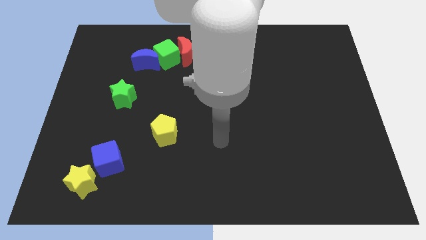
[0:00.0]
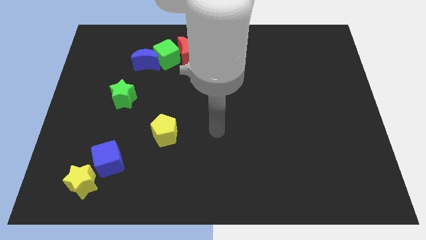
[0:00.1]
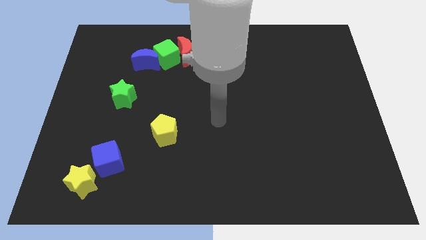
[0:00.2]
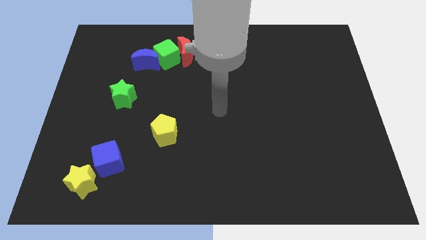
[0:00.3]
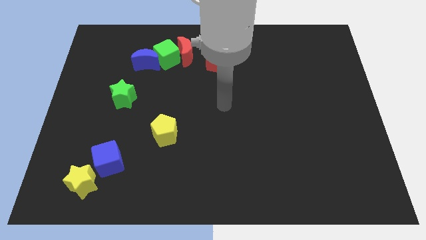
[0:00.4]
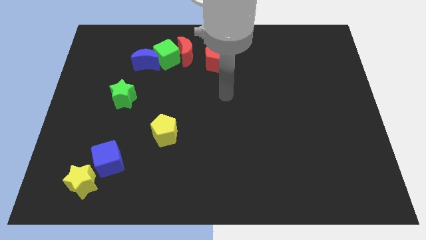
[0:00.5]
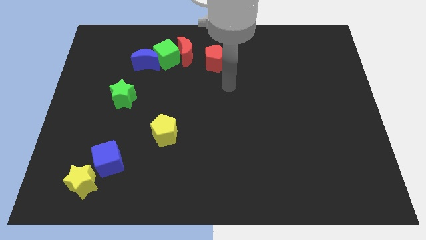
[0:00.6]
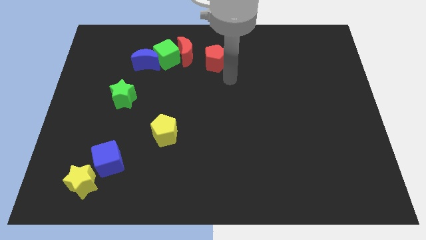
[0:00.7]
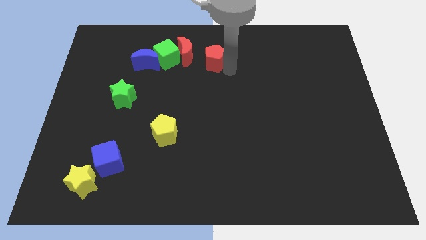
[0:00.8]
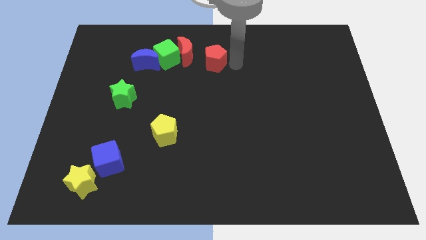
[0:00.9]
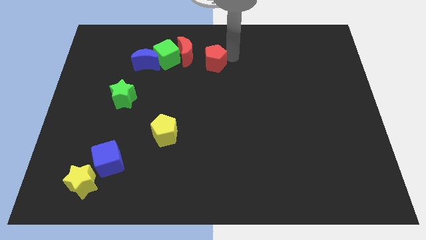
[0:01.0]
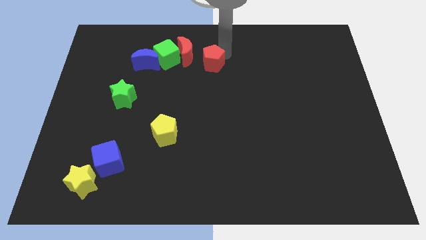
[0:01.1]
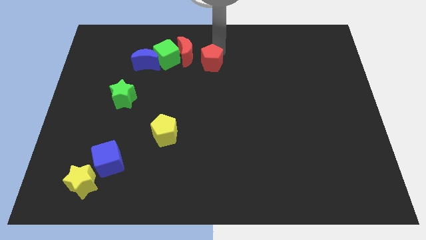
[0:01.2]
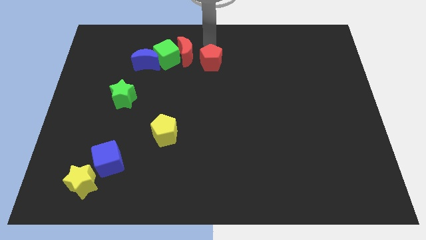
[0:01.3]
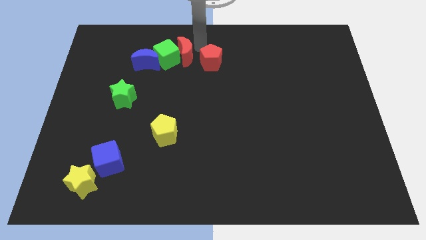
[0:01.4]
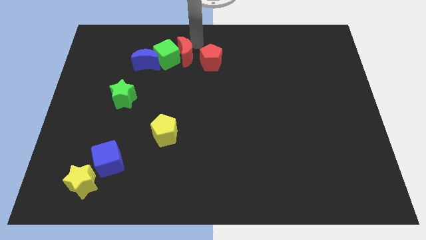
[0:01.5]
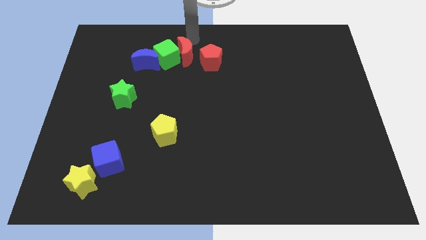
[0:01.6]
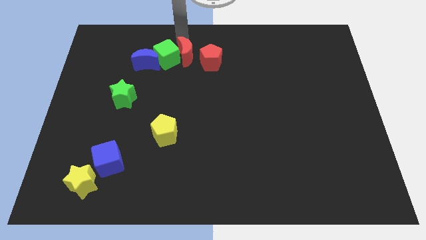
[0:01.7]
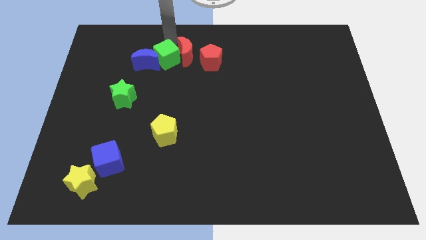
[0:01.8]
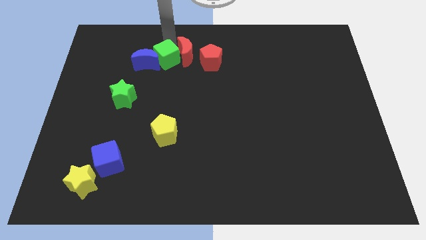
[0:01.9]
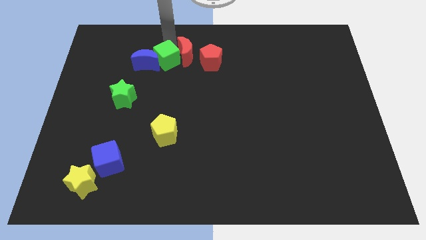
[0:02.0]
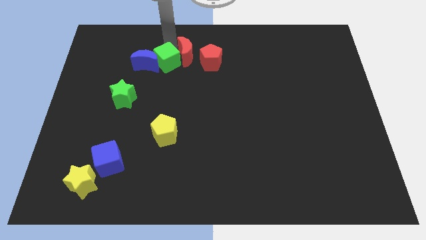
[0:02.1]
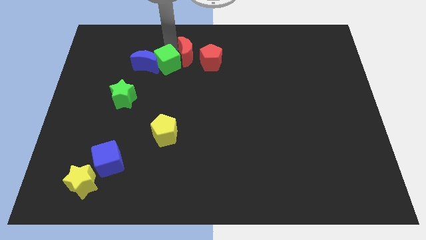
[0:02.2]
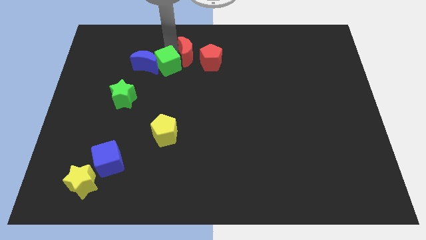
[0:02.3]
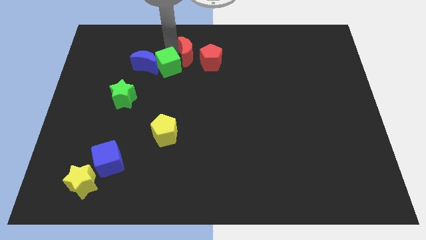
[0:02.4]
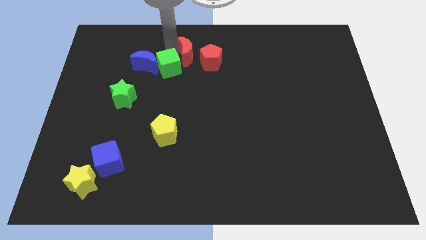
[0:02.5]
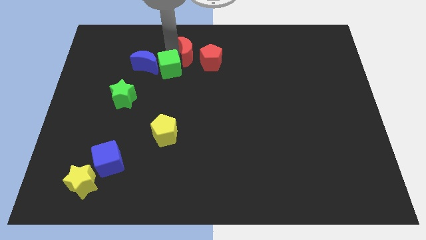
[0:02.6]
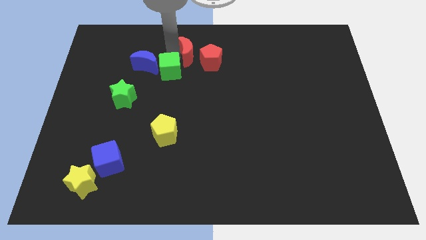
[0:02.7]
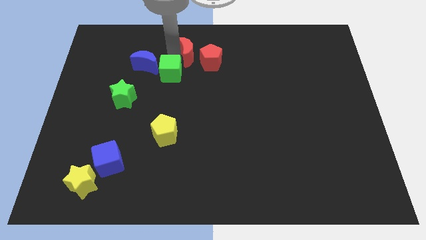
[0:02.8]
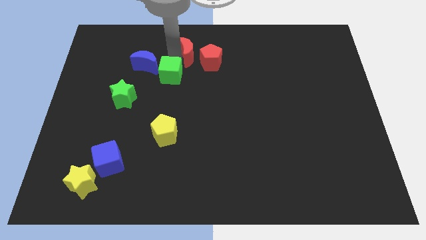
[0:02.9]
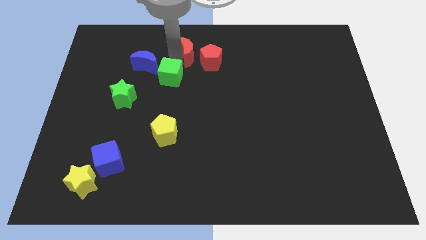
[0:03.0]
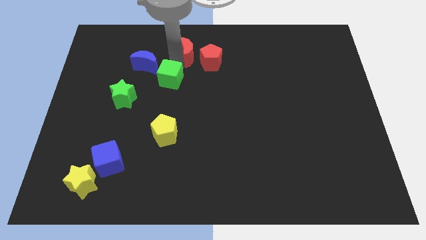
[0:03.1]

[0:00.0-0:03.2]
slightly push the green cube downwards

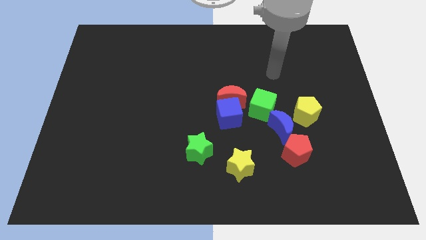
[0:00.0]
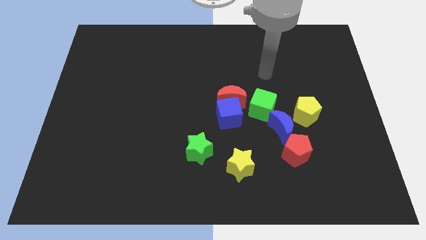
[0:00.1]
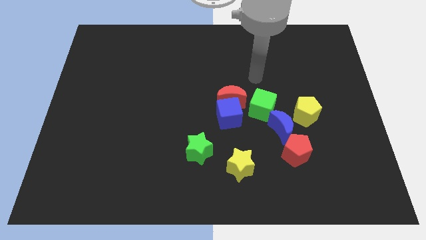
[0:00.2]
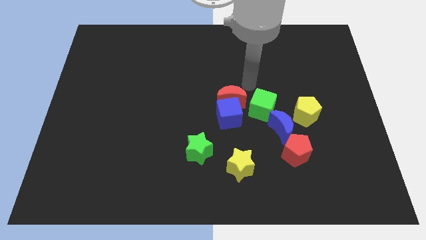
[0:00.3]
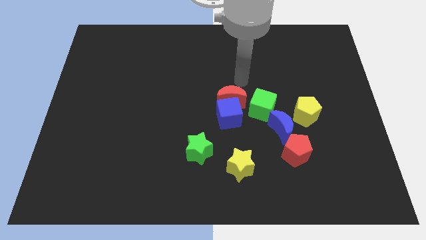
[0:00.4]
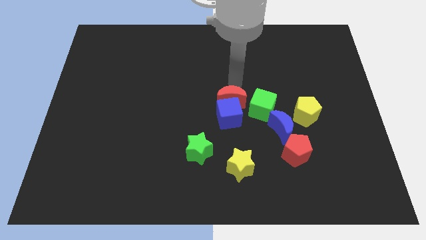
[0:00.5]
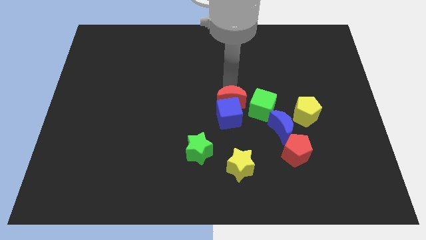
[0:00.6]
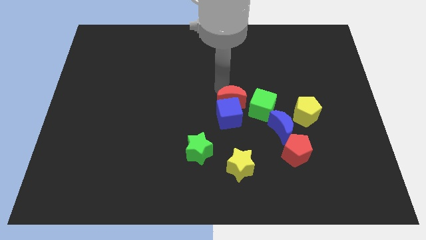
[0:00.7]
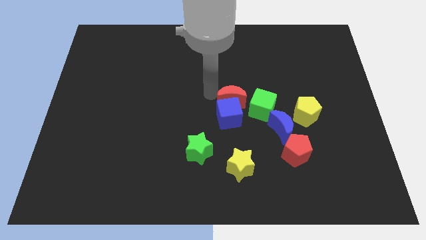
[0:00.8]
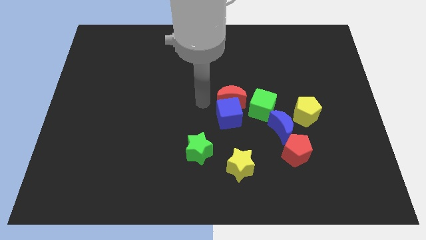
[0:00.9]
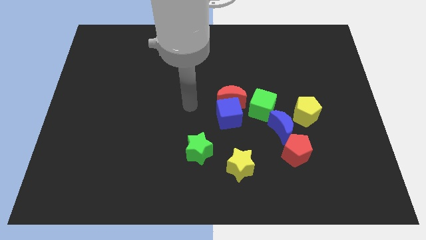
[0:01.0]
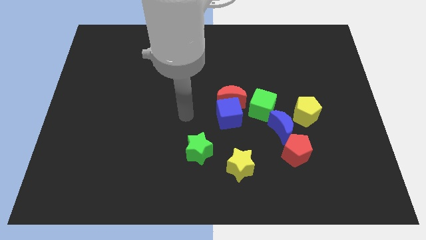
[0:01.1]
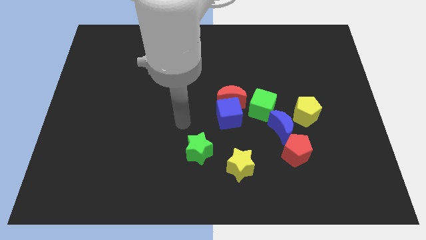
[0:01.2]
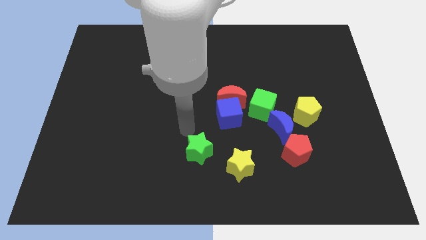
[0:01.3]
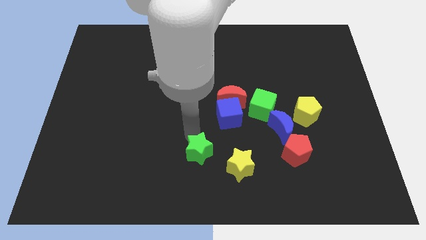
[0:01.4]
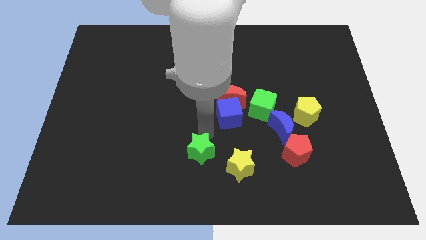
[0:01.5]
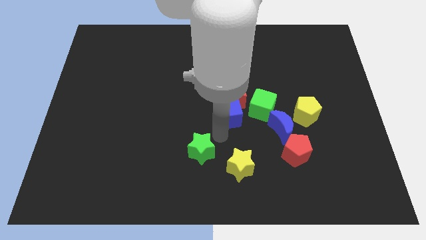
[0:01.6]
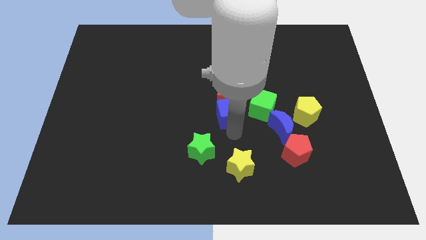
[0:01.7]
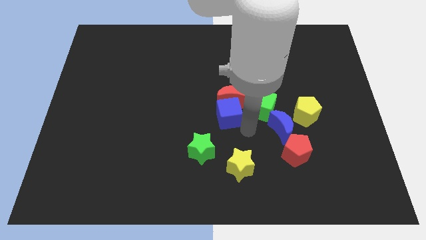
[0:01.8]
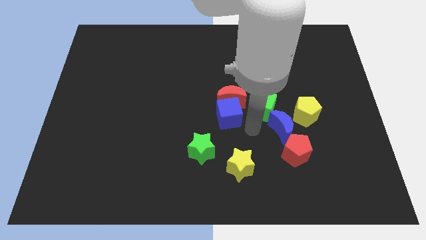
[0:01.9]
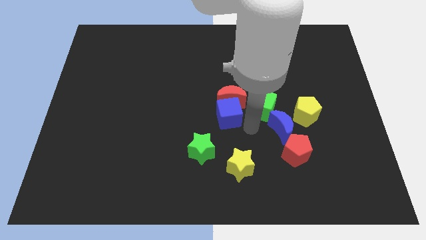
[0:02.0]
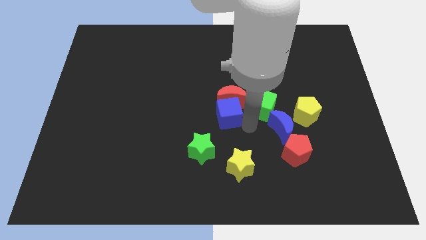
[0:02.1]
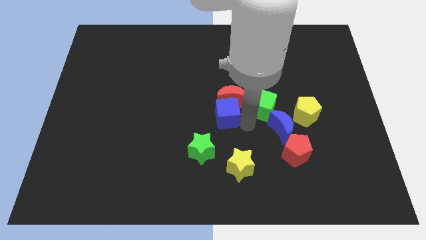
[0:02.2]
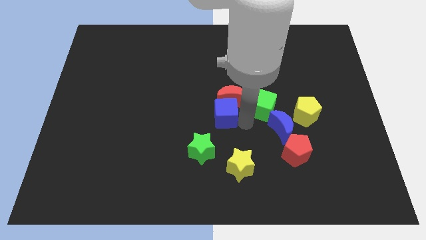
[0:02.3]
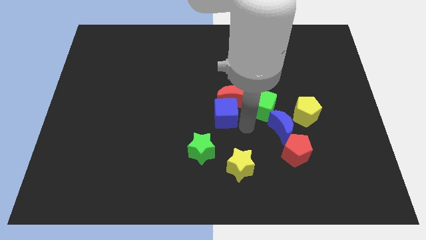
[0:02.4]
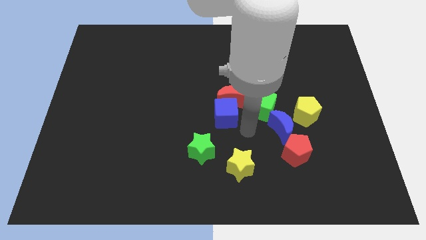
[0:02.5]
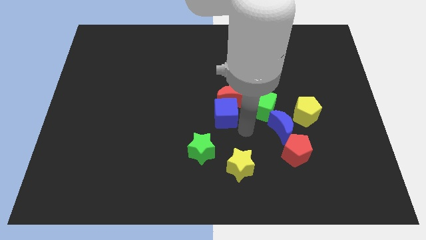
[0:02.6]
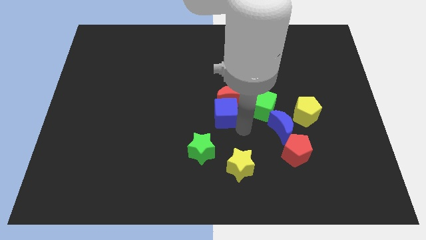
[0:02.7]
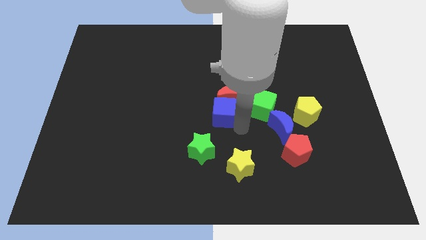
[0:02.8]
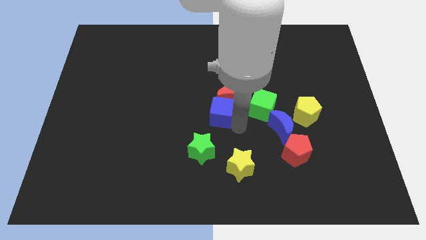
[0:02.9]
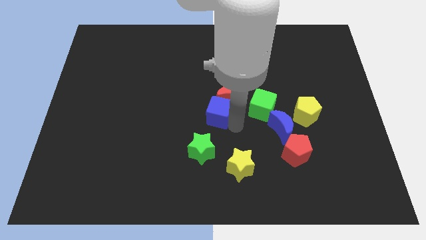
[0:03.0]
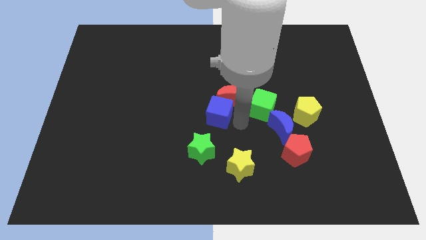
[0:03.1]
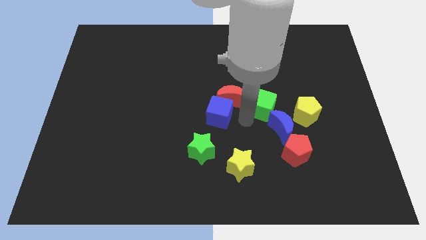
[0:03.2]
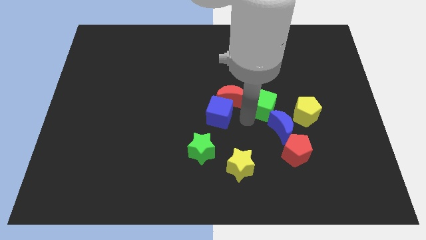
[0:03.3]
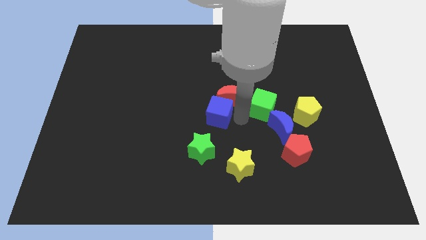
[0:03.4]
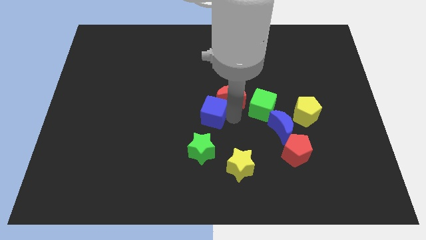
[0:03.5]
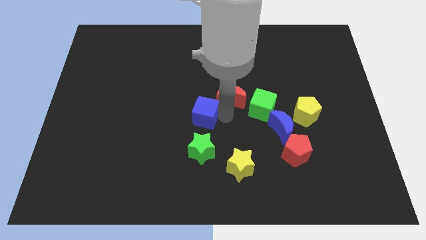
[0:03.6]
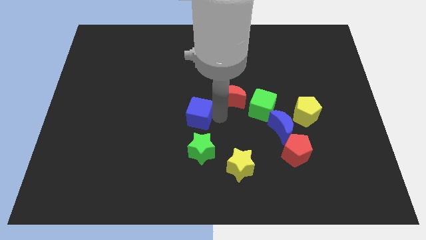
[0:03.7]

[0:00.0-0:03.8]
push the blue cube to the left a little bit

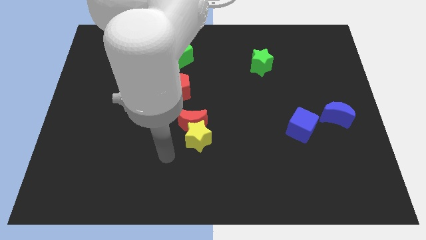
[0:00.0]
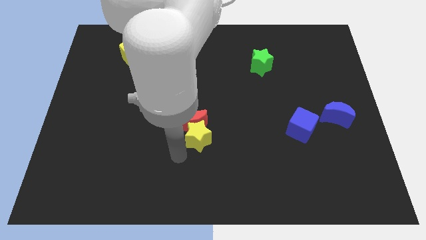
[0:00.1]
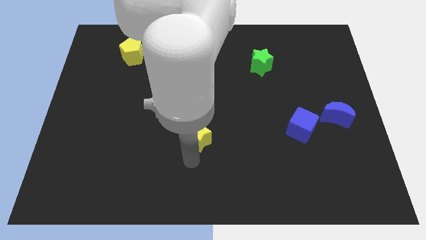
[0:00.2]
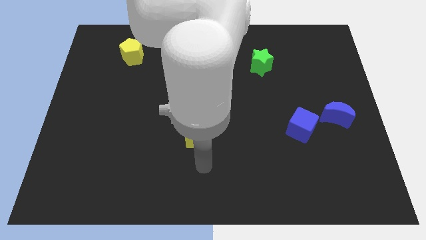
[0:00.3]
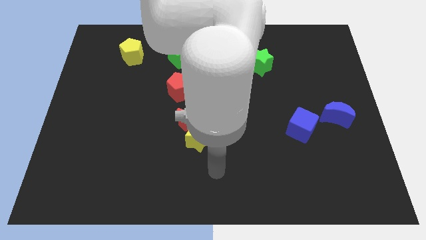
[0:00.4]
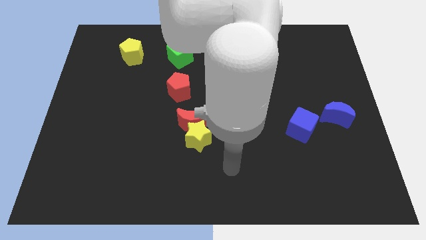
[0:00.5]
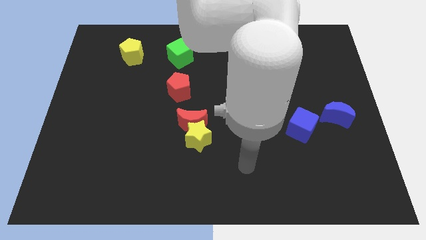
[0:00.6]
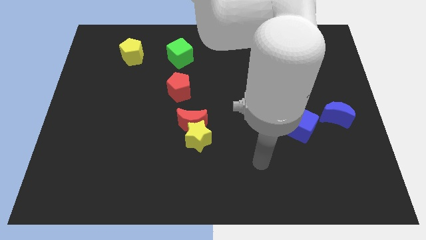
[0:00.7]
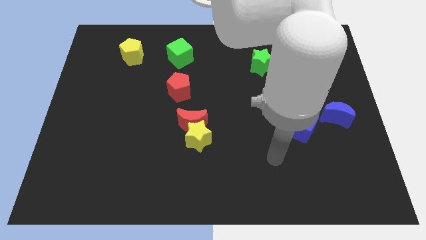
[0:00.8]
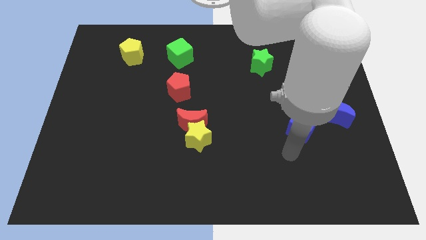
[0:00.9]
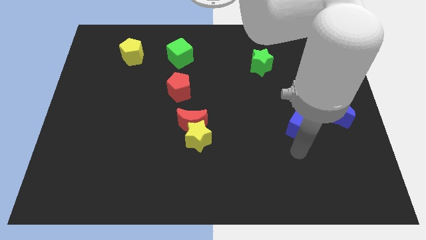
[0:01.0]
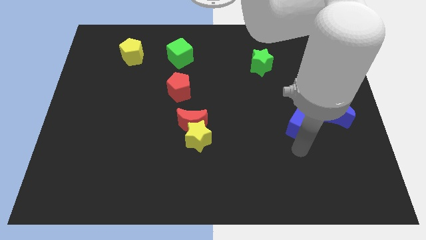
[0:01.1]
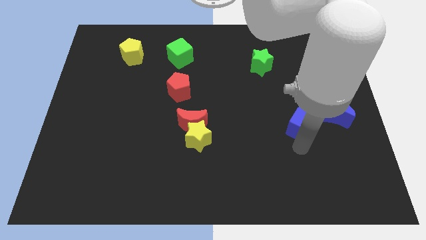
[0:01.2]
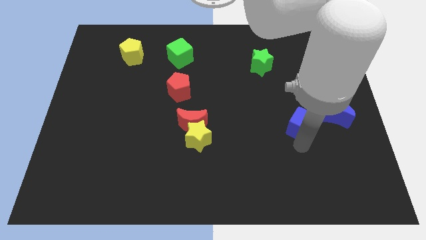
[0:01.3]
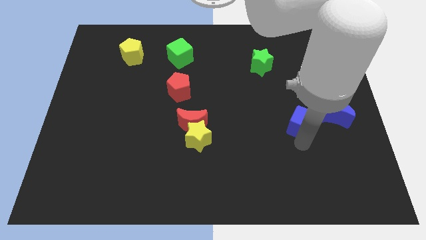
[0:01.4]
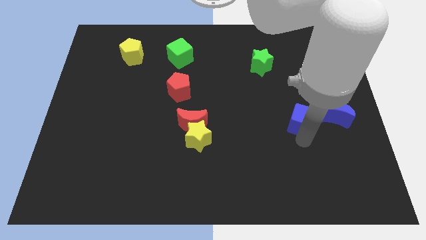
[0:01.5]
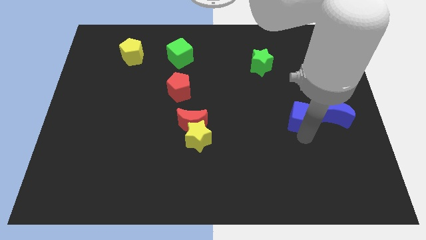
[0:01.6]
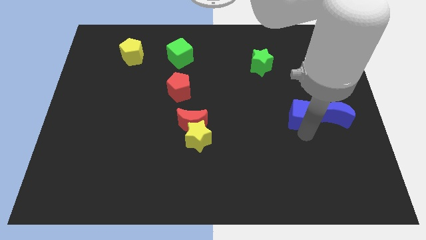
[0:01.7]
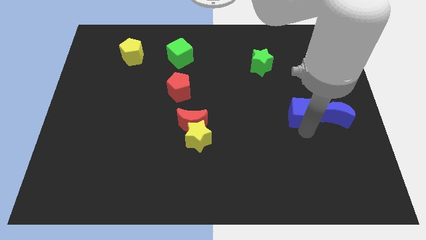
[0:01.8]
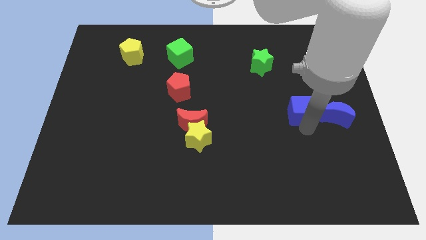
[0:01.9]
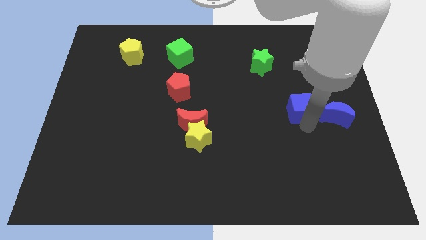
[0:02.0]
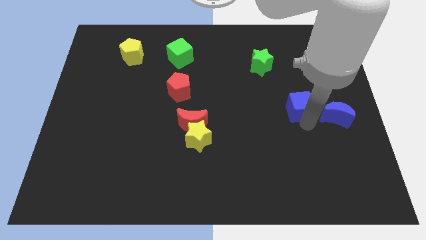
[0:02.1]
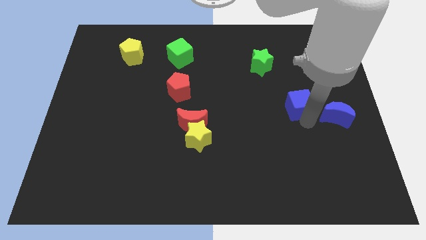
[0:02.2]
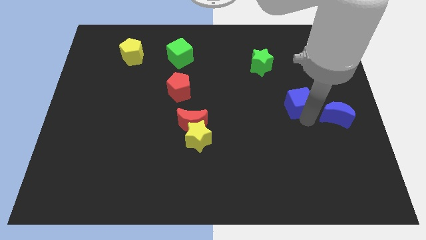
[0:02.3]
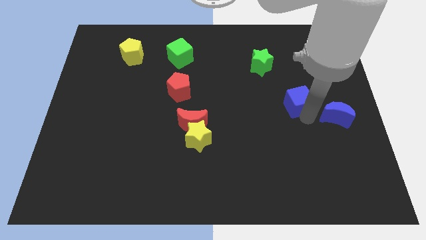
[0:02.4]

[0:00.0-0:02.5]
push the blue cube a little up
